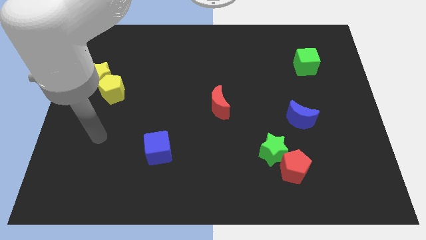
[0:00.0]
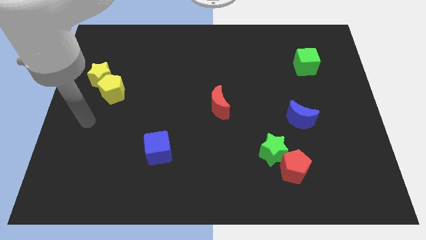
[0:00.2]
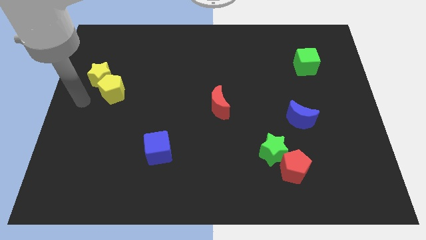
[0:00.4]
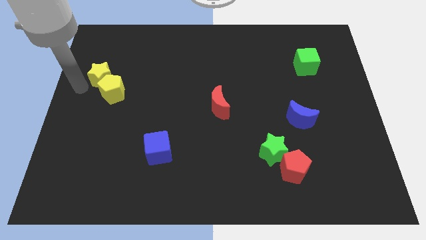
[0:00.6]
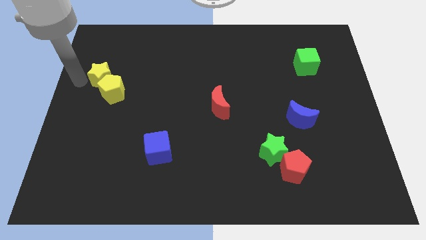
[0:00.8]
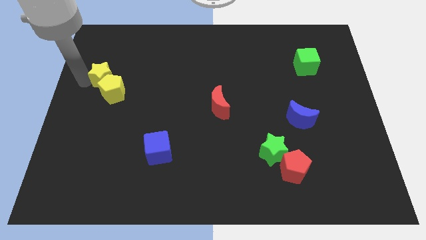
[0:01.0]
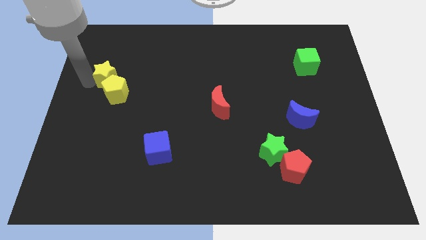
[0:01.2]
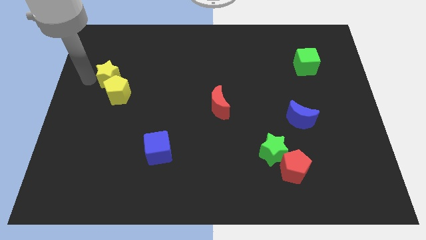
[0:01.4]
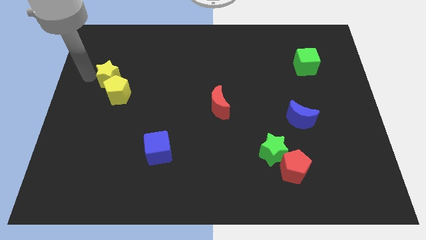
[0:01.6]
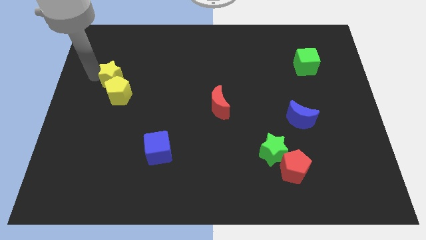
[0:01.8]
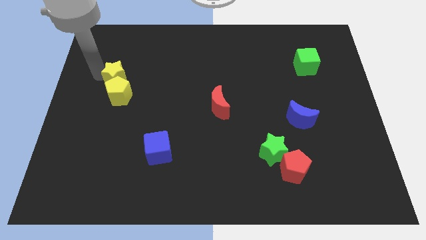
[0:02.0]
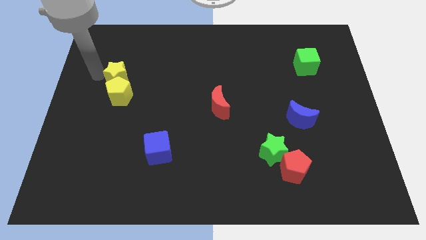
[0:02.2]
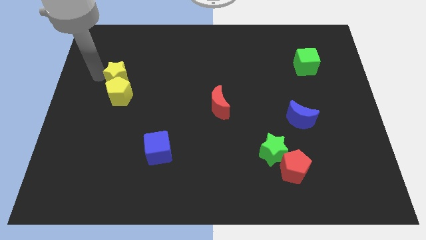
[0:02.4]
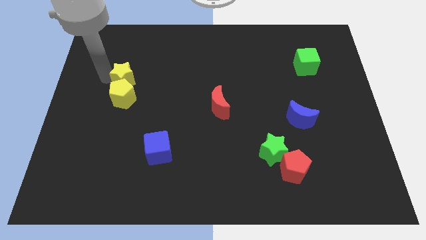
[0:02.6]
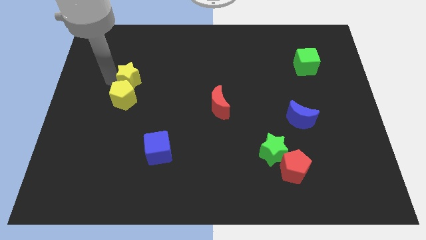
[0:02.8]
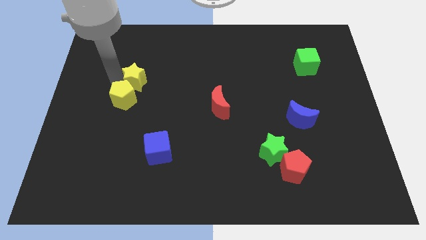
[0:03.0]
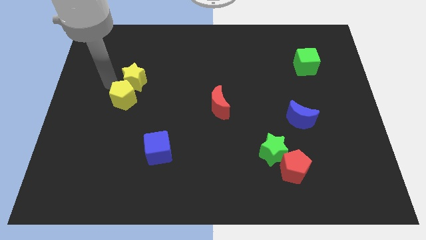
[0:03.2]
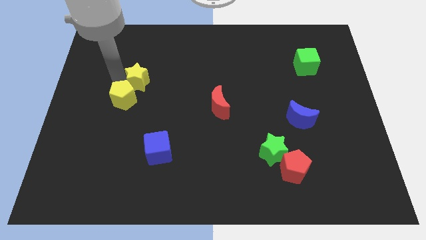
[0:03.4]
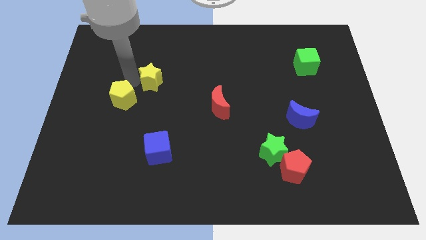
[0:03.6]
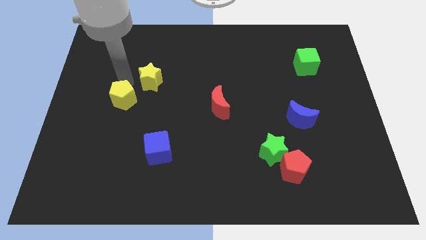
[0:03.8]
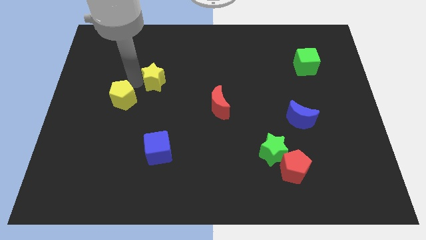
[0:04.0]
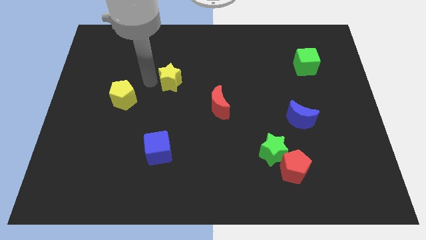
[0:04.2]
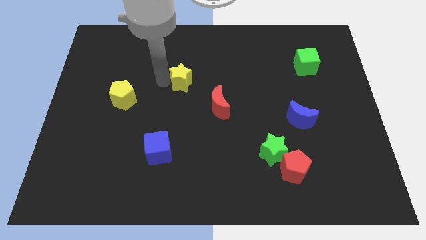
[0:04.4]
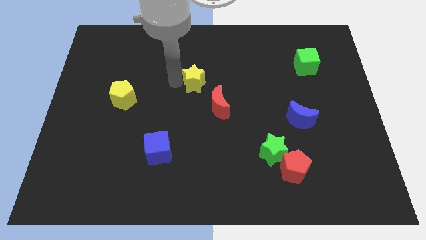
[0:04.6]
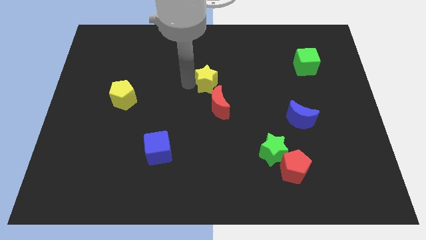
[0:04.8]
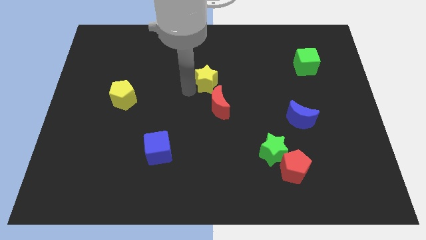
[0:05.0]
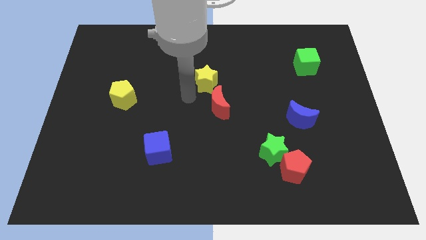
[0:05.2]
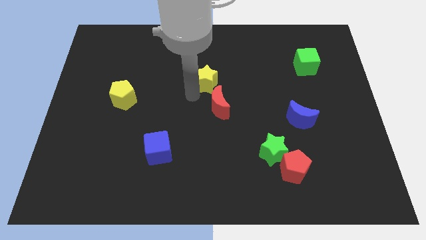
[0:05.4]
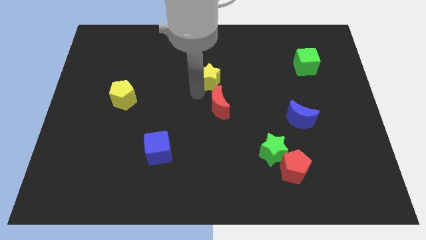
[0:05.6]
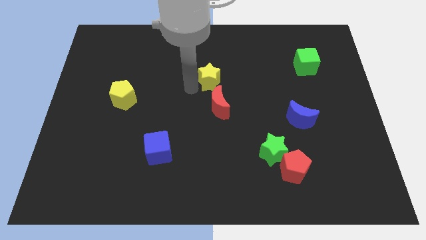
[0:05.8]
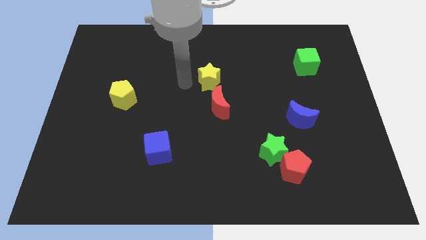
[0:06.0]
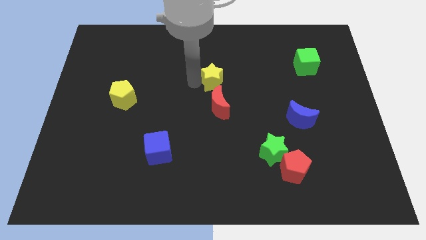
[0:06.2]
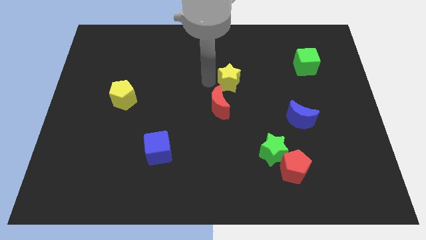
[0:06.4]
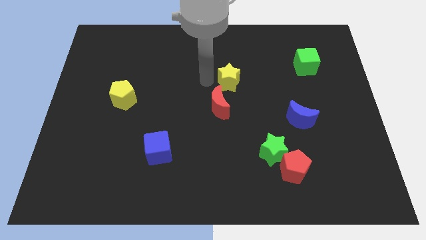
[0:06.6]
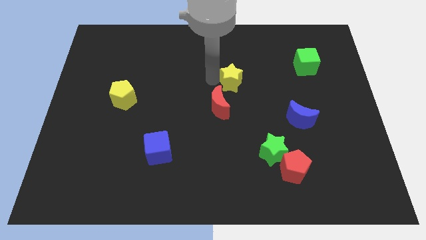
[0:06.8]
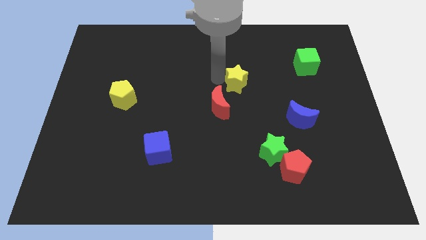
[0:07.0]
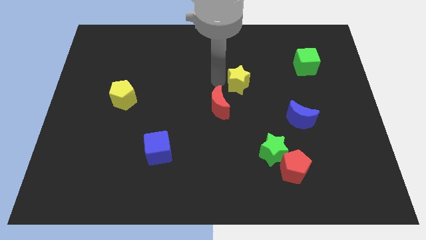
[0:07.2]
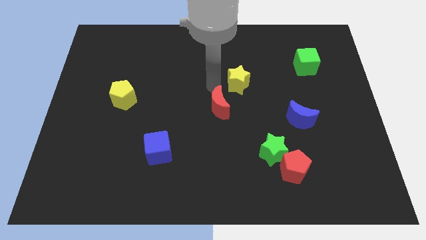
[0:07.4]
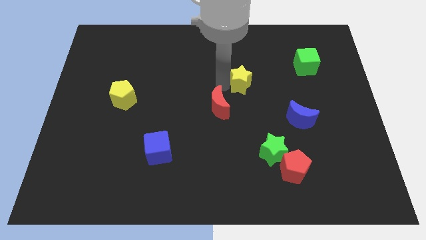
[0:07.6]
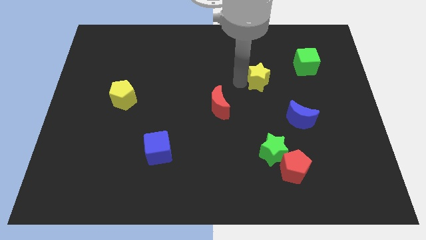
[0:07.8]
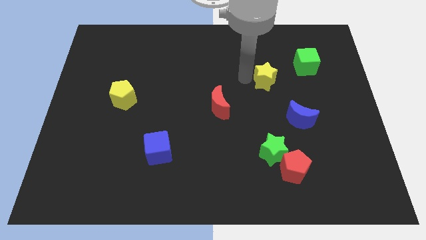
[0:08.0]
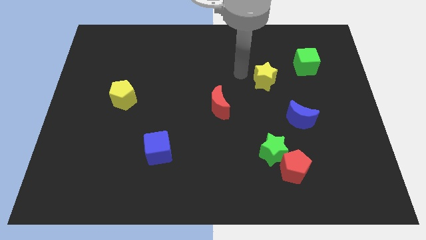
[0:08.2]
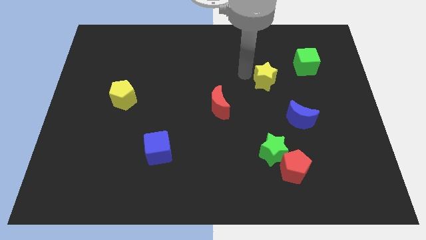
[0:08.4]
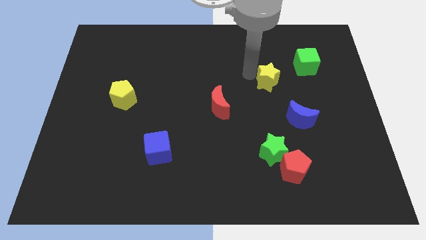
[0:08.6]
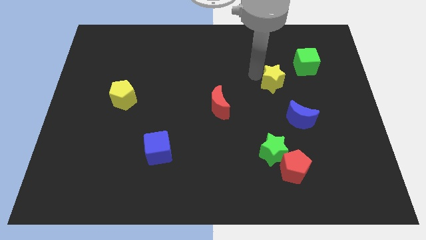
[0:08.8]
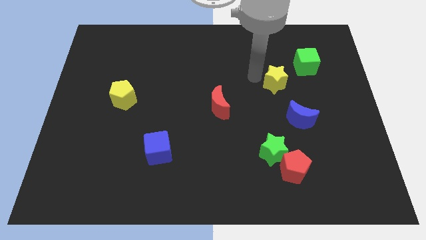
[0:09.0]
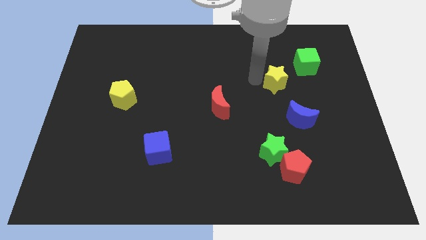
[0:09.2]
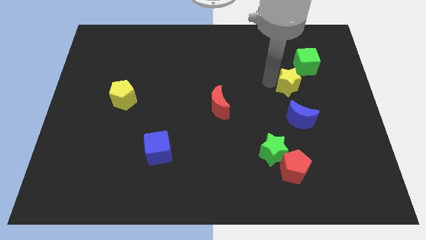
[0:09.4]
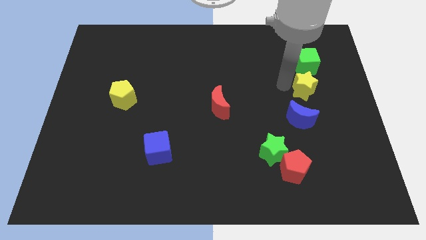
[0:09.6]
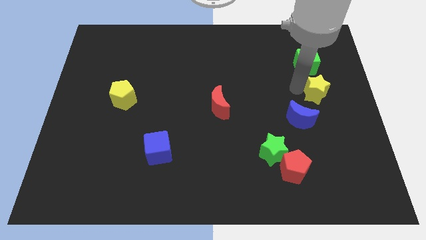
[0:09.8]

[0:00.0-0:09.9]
push the yellow star to the right side

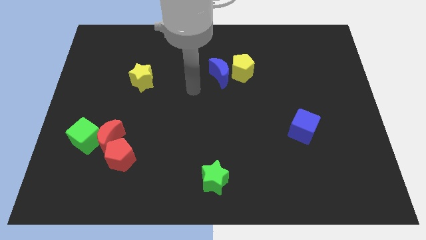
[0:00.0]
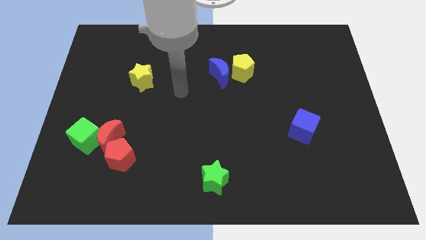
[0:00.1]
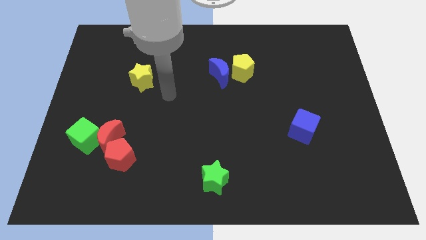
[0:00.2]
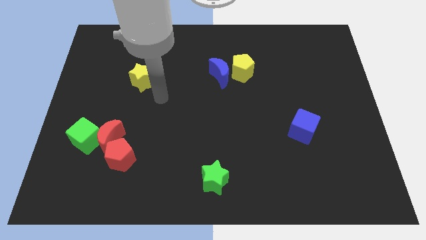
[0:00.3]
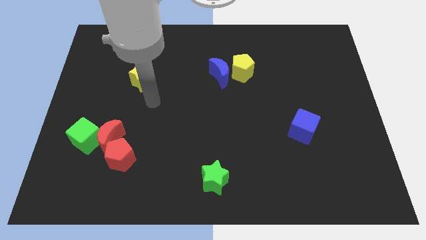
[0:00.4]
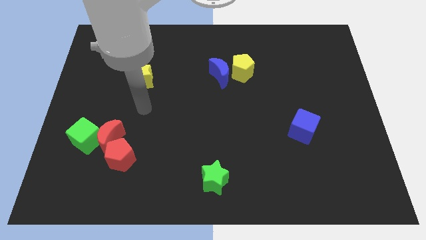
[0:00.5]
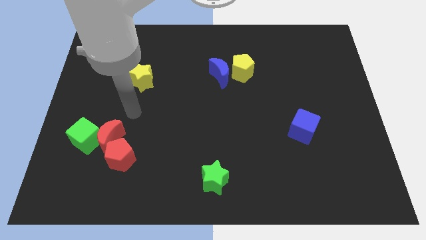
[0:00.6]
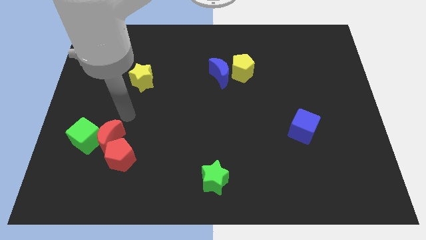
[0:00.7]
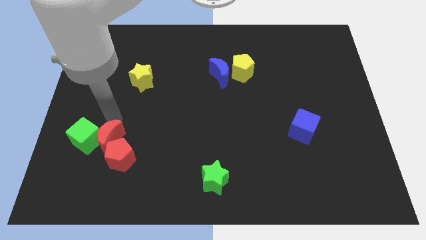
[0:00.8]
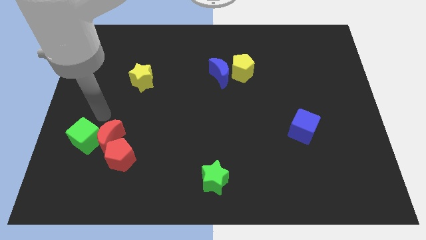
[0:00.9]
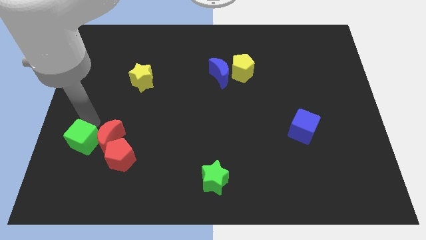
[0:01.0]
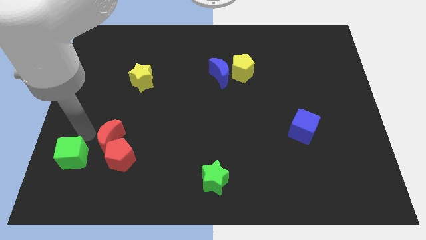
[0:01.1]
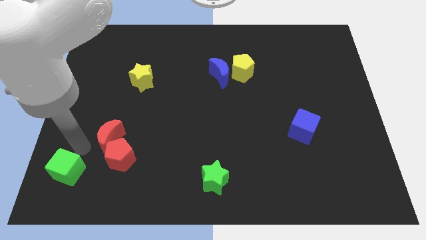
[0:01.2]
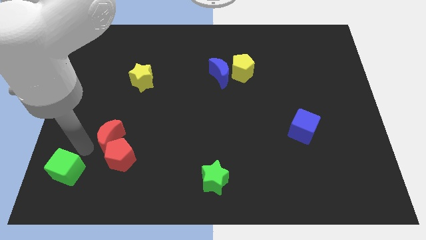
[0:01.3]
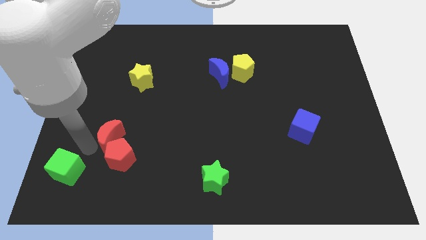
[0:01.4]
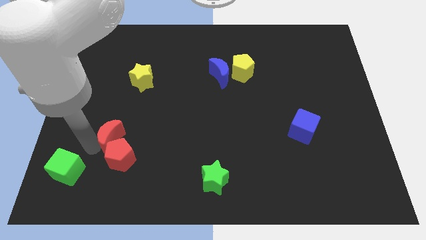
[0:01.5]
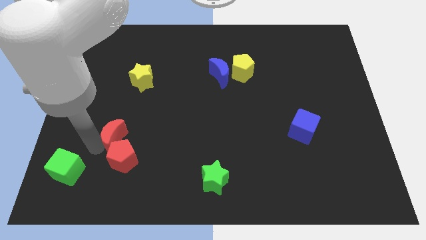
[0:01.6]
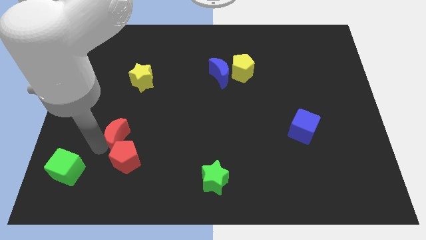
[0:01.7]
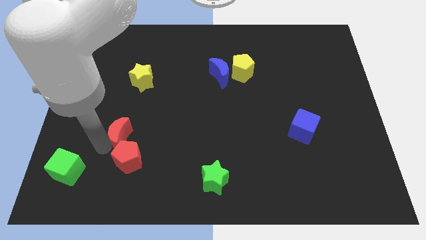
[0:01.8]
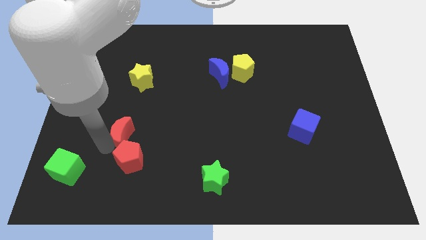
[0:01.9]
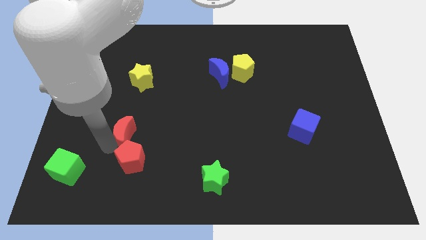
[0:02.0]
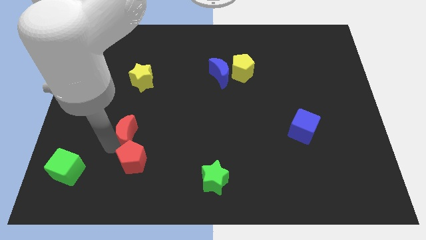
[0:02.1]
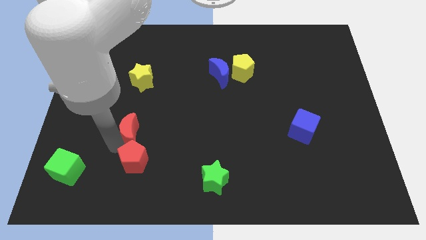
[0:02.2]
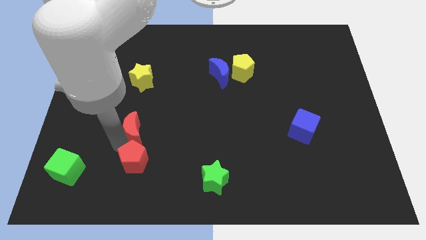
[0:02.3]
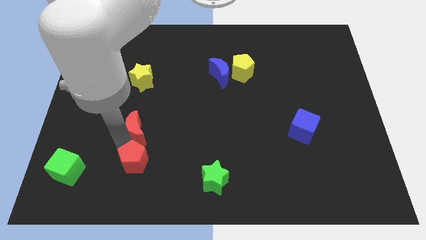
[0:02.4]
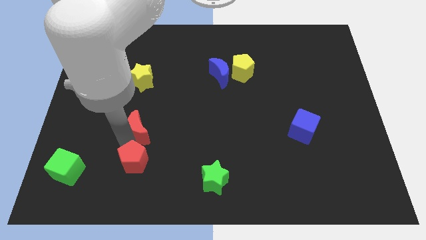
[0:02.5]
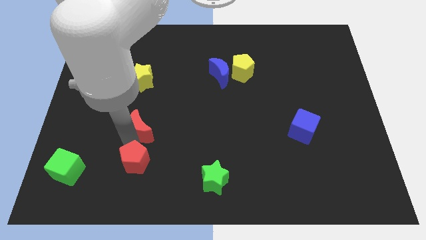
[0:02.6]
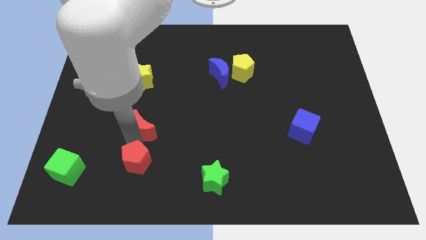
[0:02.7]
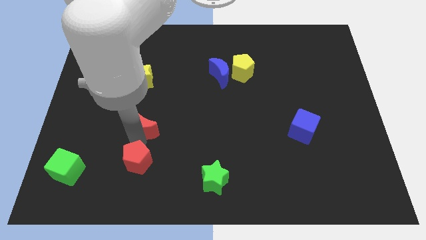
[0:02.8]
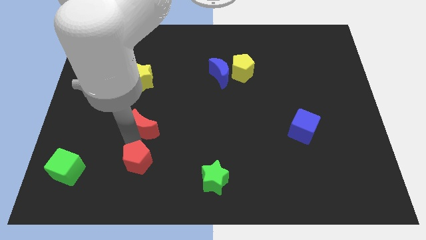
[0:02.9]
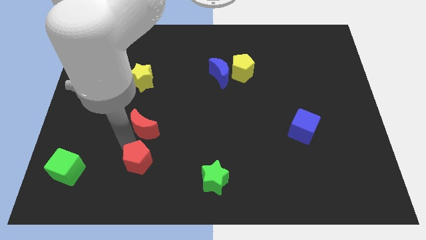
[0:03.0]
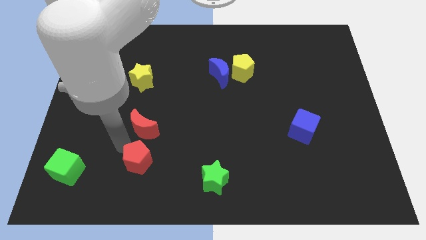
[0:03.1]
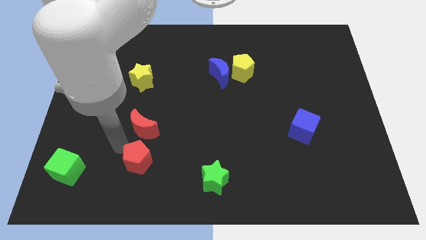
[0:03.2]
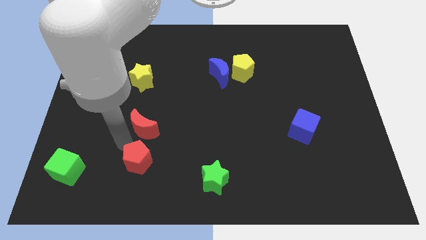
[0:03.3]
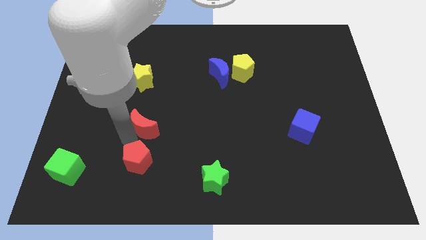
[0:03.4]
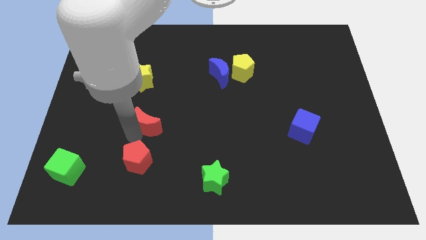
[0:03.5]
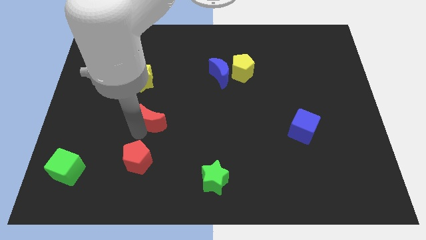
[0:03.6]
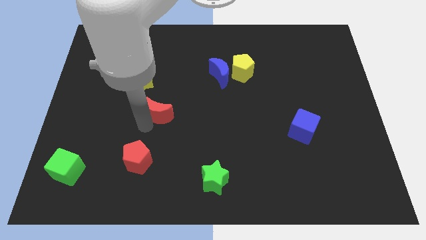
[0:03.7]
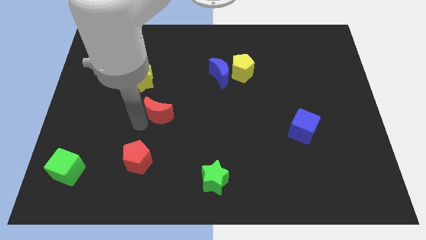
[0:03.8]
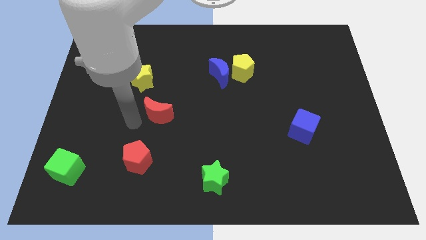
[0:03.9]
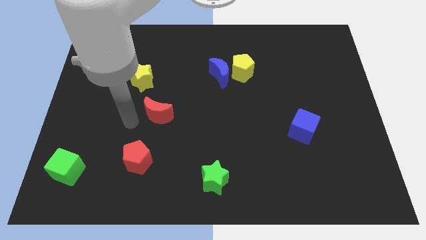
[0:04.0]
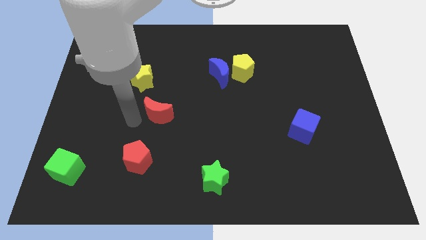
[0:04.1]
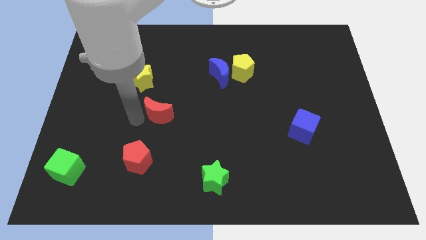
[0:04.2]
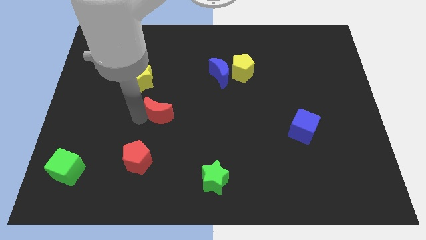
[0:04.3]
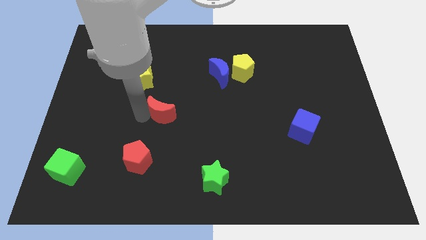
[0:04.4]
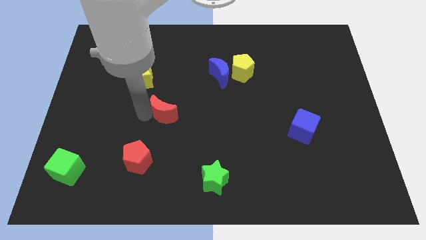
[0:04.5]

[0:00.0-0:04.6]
put the red moon to the middle
